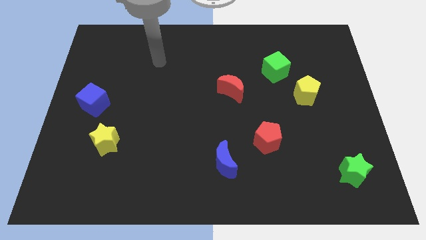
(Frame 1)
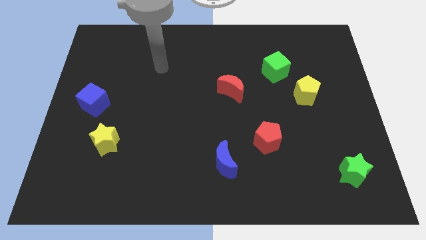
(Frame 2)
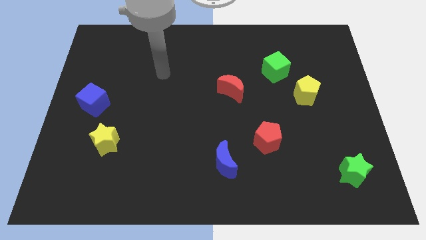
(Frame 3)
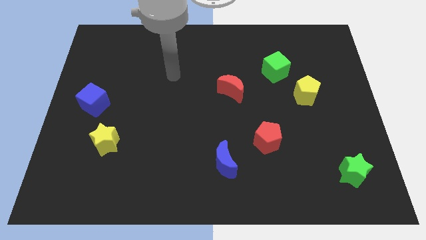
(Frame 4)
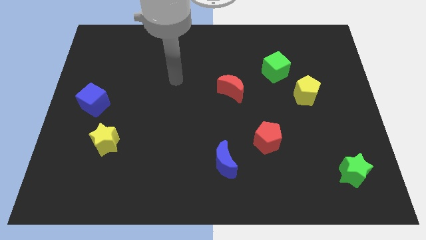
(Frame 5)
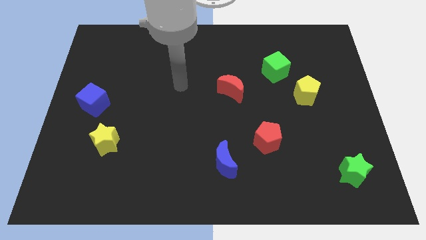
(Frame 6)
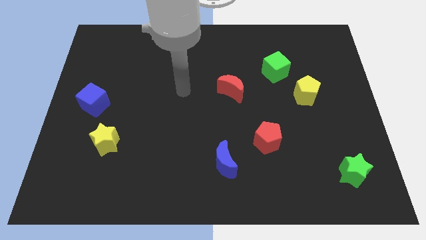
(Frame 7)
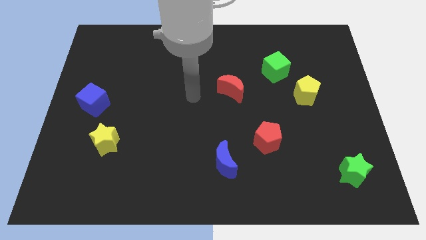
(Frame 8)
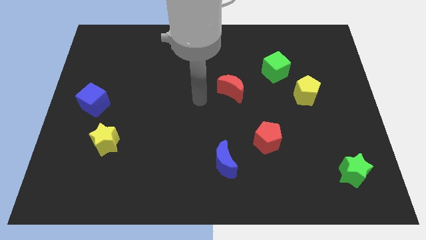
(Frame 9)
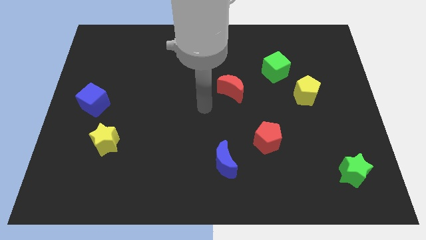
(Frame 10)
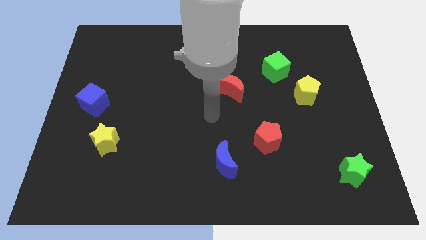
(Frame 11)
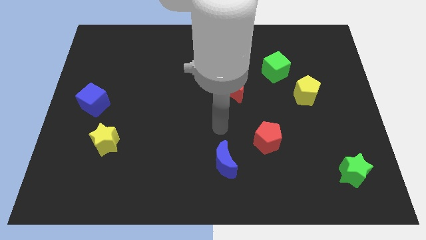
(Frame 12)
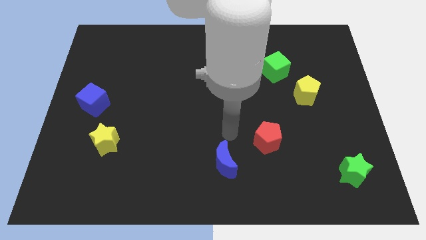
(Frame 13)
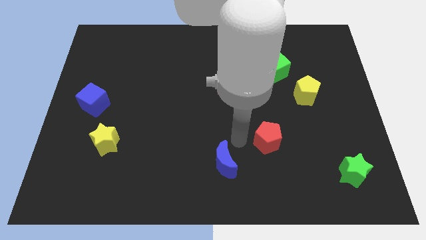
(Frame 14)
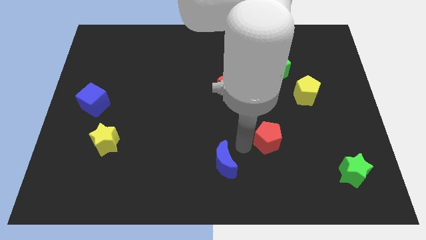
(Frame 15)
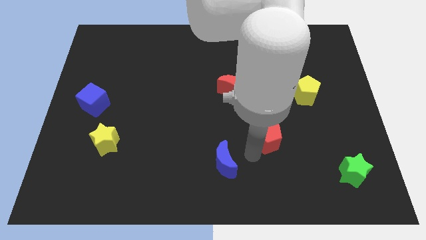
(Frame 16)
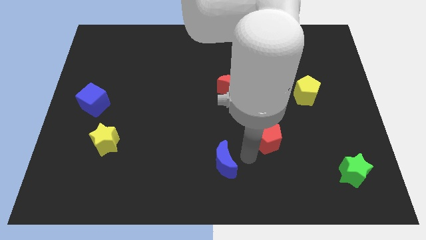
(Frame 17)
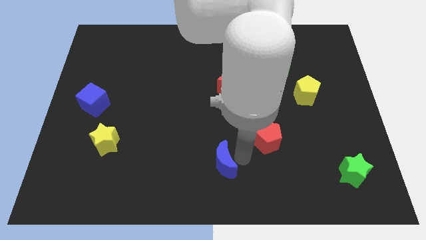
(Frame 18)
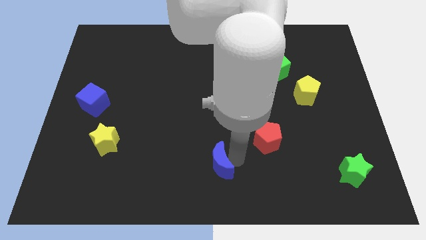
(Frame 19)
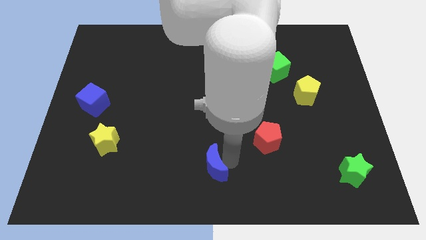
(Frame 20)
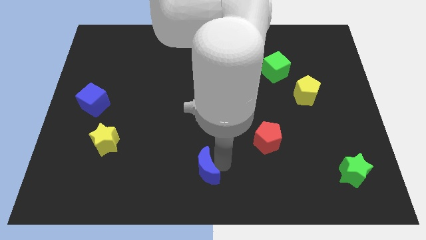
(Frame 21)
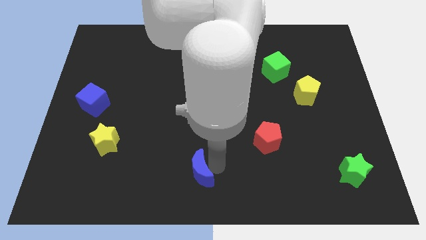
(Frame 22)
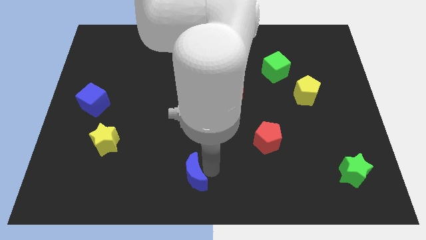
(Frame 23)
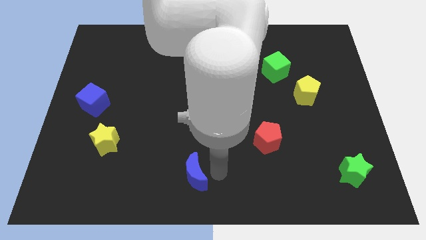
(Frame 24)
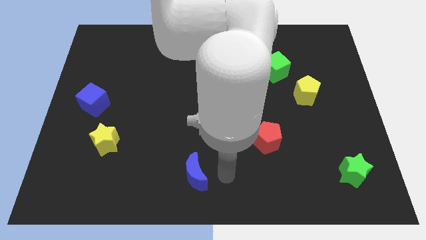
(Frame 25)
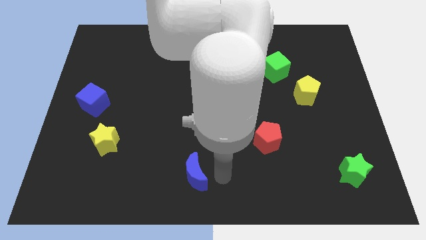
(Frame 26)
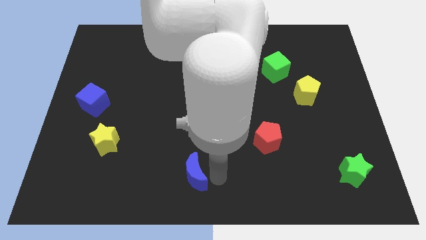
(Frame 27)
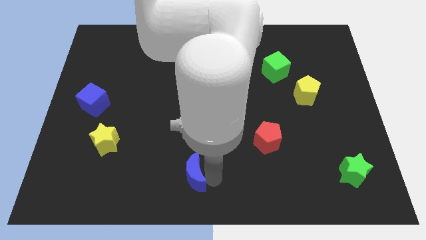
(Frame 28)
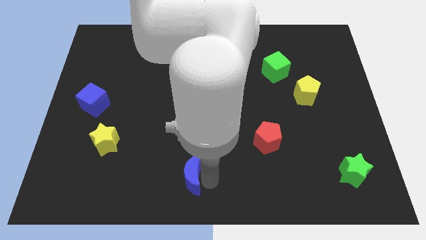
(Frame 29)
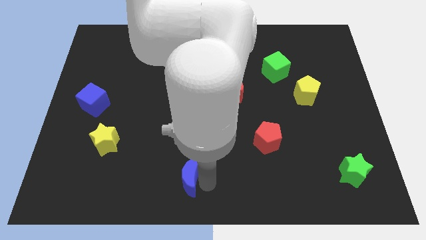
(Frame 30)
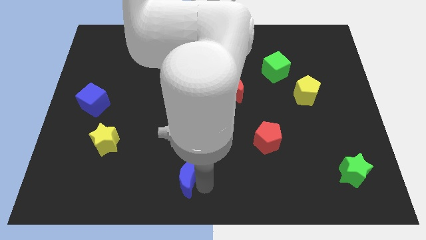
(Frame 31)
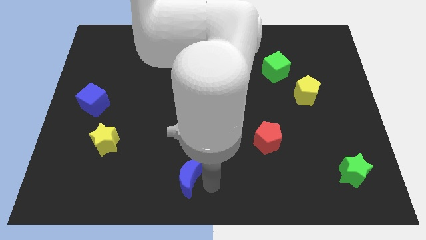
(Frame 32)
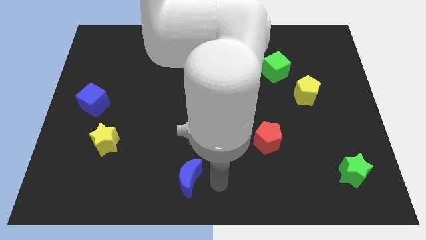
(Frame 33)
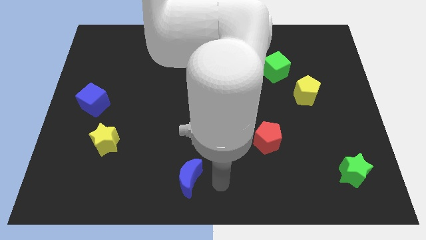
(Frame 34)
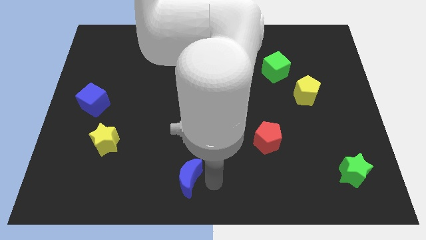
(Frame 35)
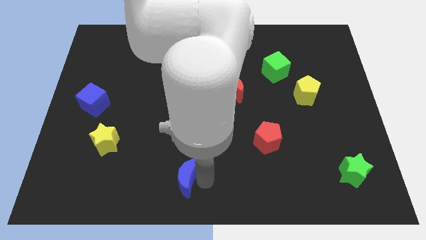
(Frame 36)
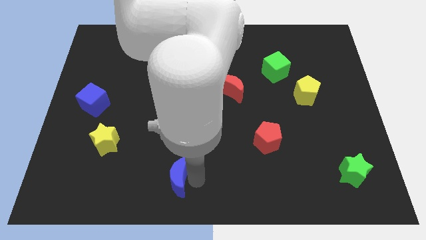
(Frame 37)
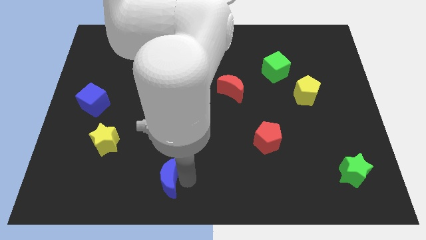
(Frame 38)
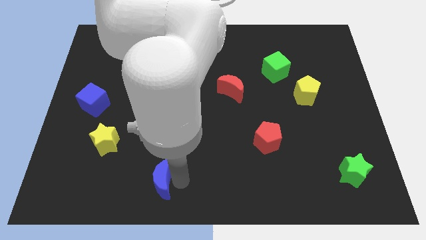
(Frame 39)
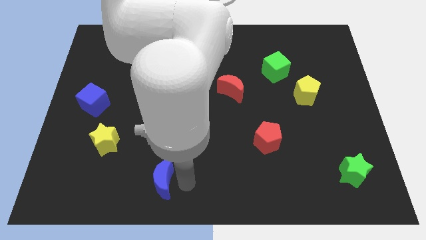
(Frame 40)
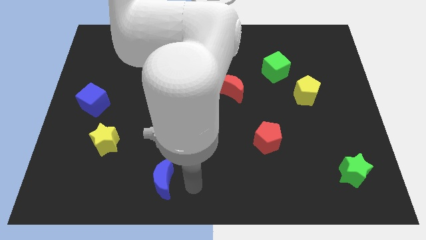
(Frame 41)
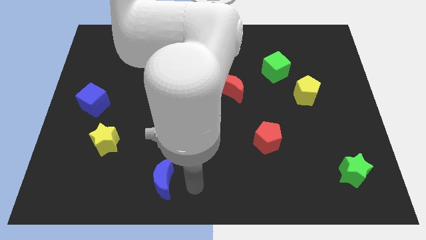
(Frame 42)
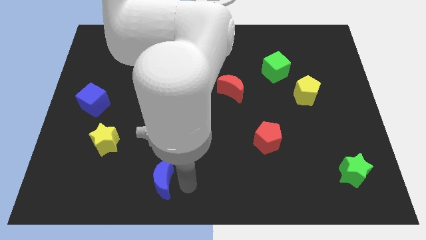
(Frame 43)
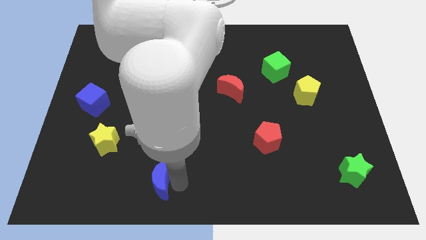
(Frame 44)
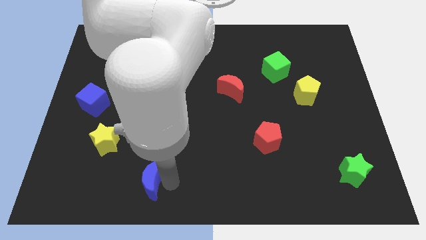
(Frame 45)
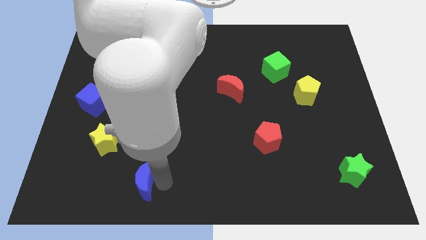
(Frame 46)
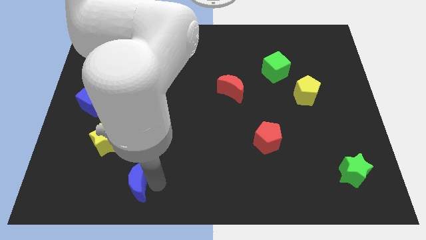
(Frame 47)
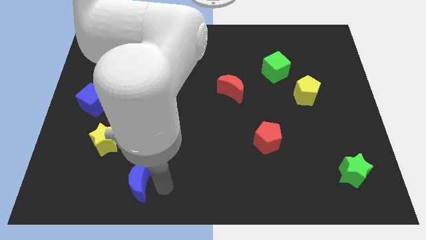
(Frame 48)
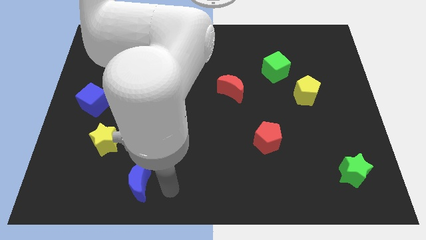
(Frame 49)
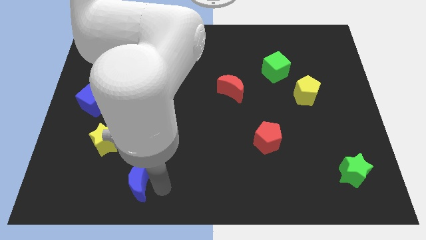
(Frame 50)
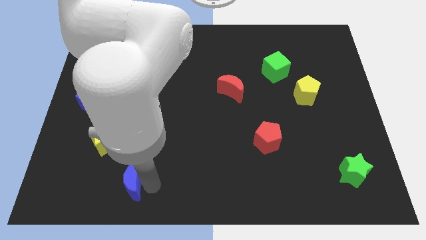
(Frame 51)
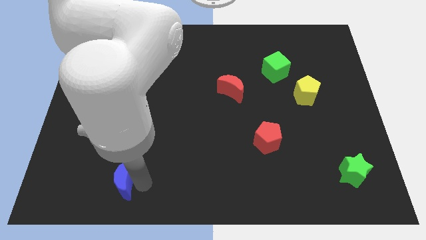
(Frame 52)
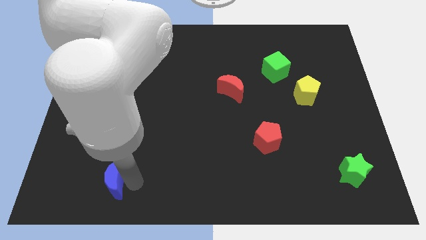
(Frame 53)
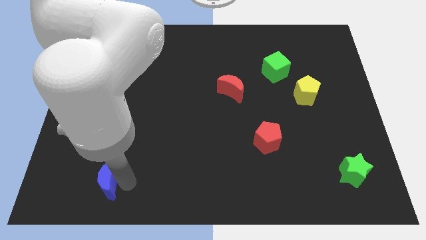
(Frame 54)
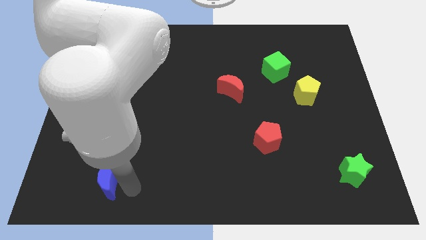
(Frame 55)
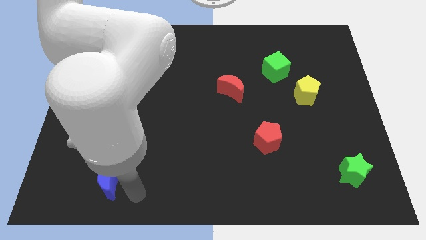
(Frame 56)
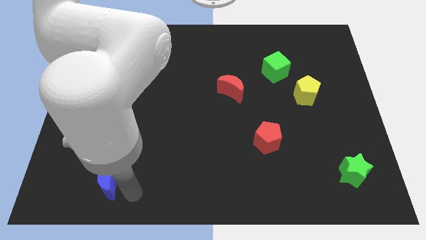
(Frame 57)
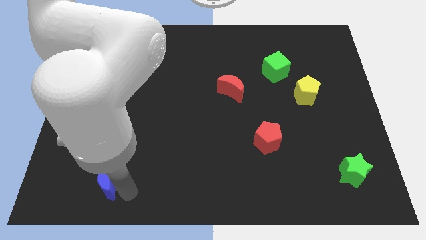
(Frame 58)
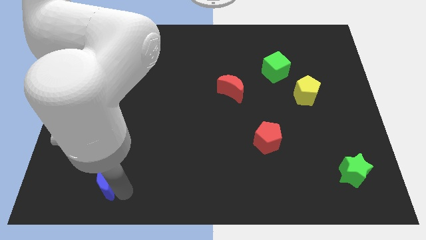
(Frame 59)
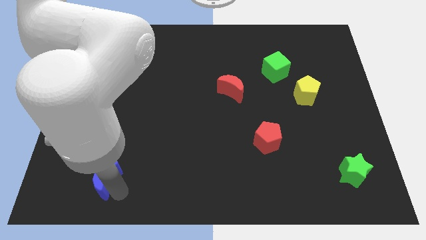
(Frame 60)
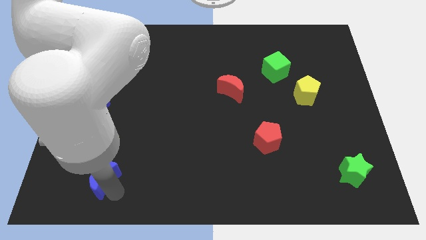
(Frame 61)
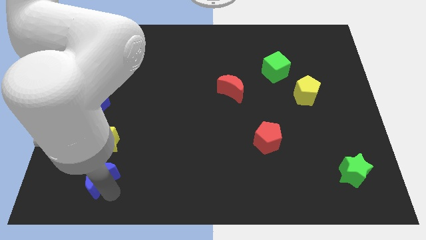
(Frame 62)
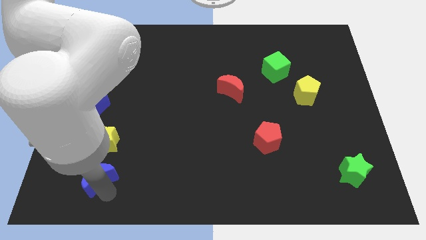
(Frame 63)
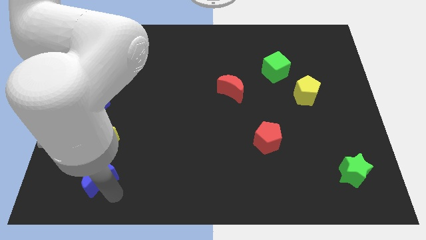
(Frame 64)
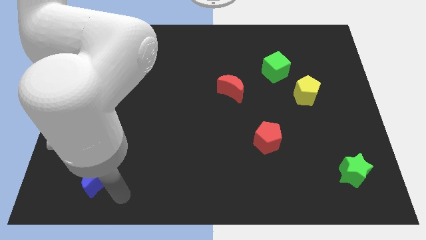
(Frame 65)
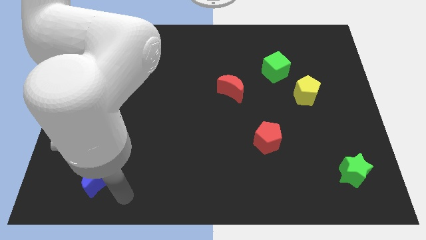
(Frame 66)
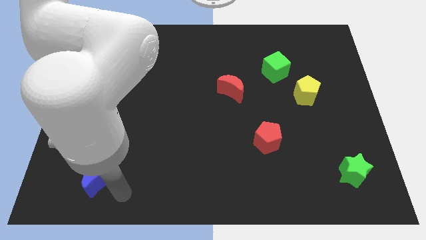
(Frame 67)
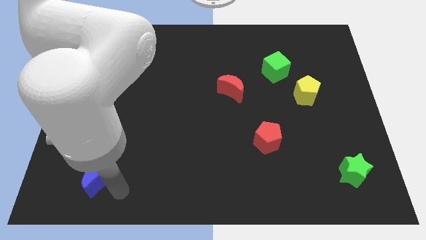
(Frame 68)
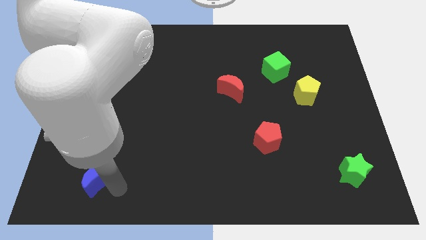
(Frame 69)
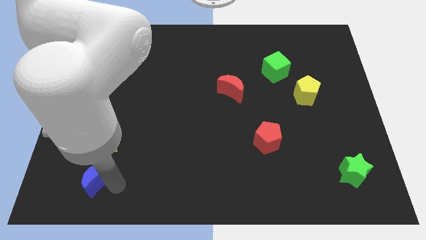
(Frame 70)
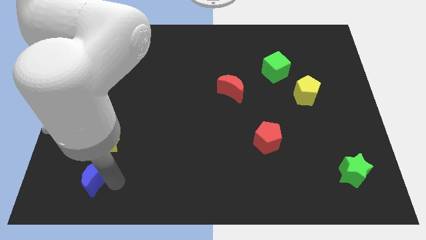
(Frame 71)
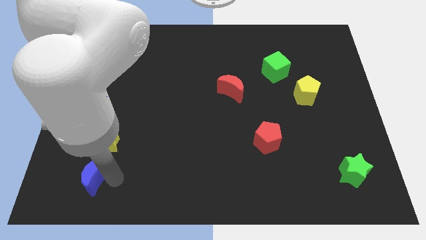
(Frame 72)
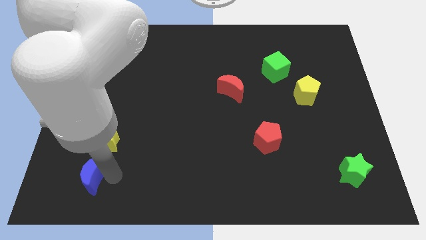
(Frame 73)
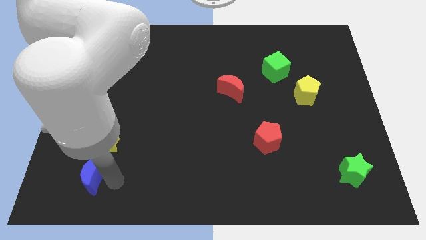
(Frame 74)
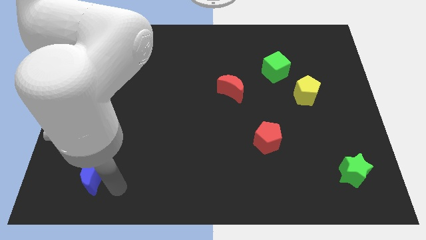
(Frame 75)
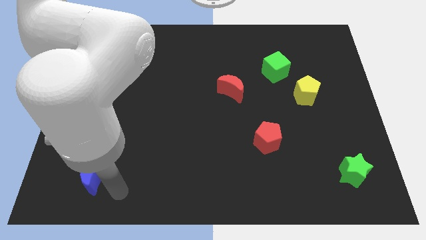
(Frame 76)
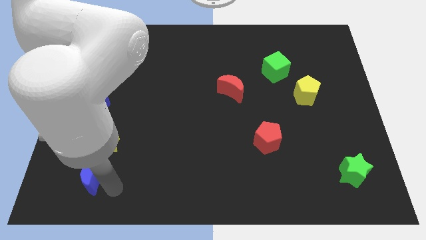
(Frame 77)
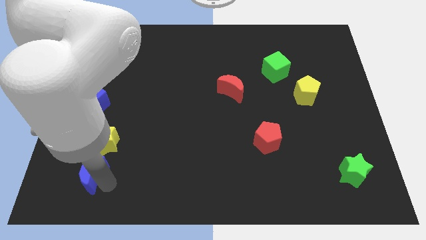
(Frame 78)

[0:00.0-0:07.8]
push the blue moon diagonally down and to the left of the yellow star
